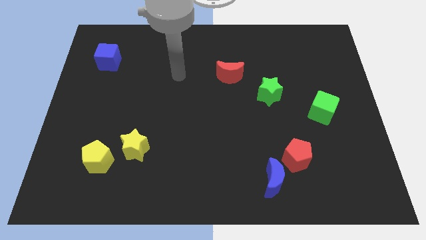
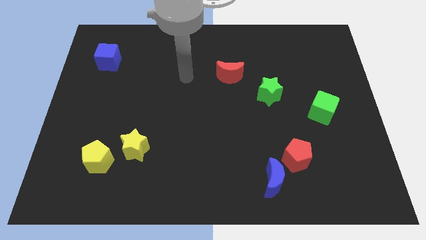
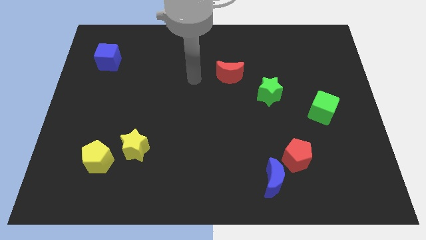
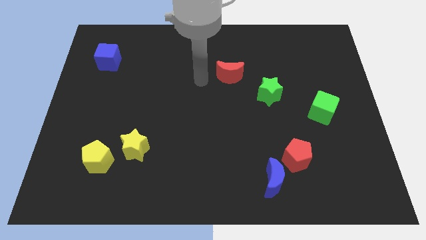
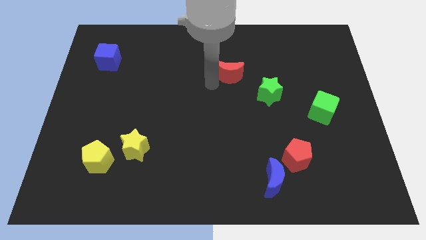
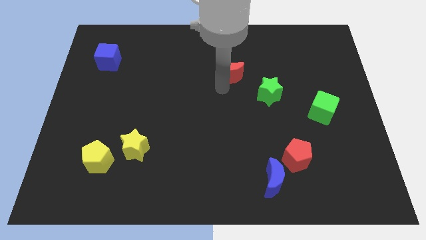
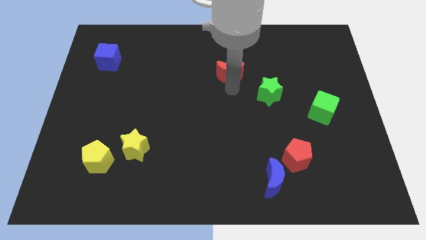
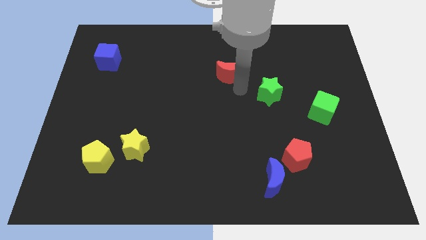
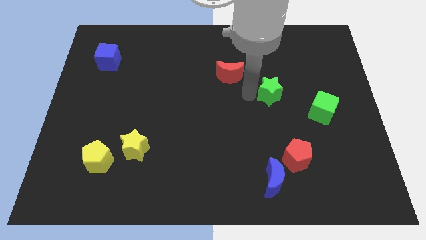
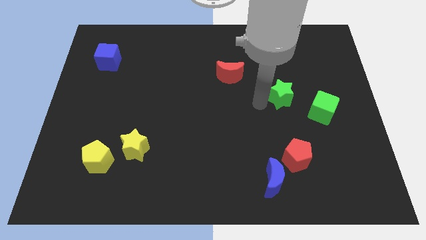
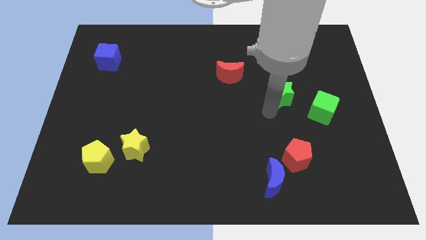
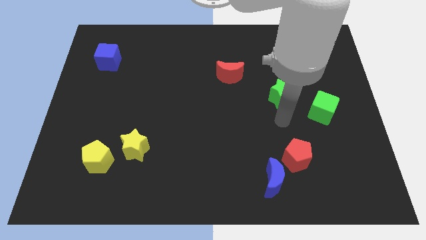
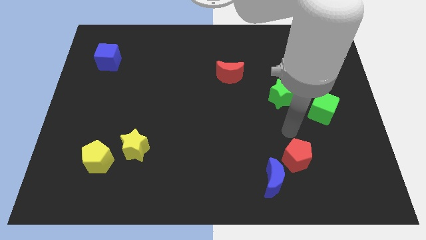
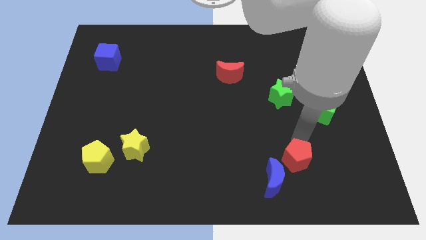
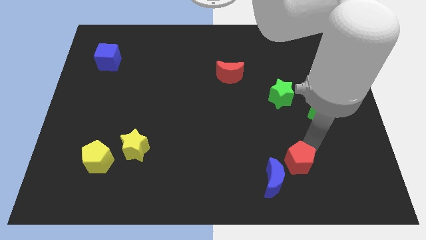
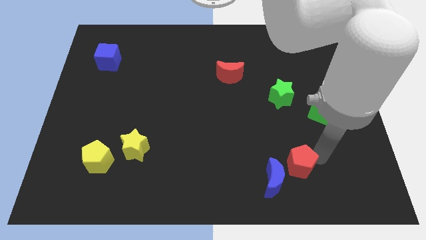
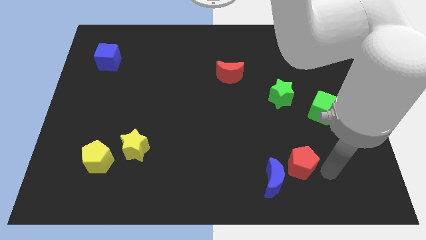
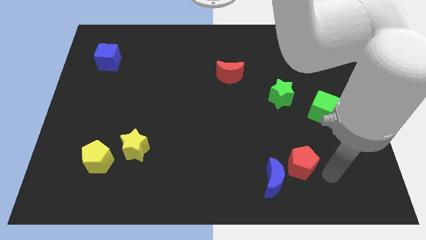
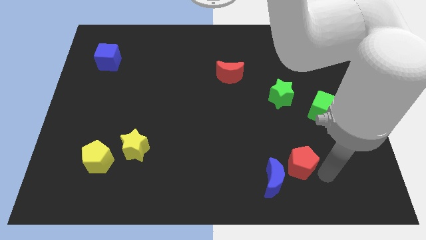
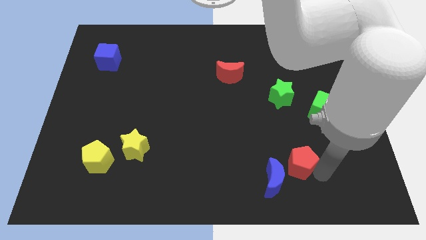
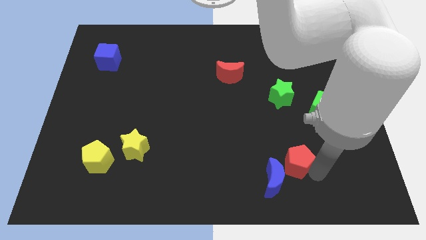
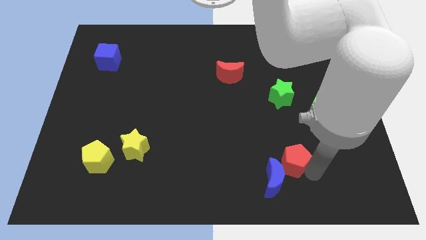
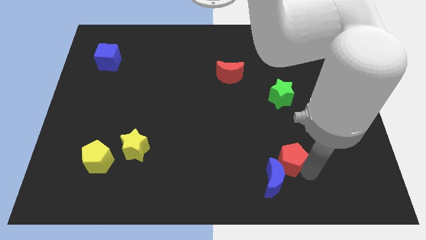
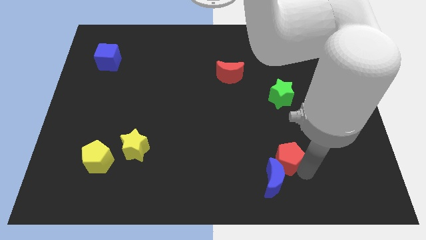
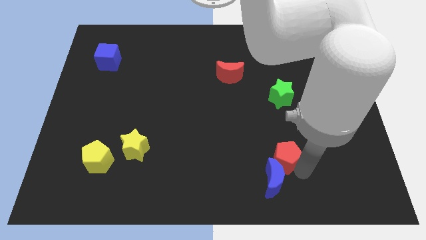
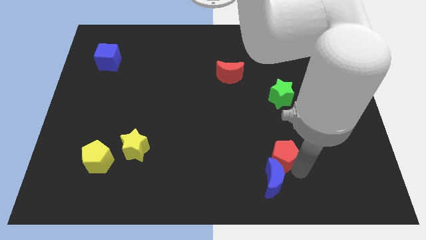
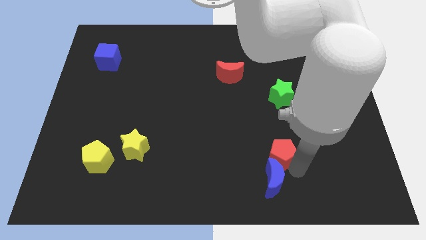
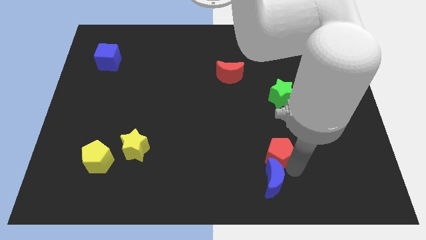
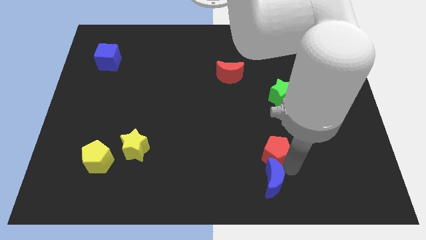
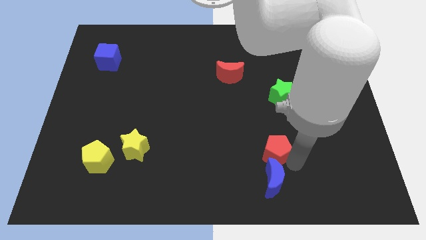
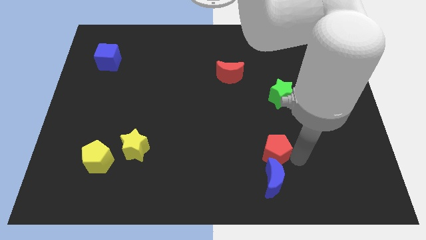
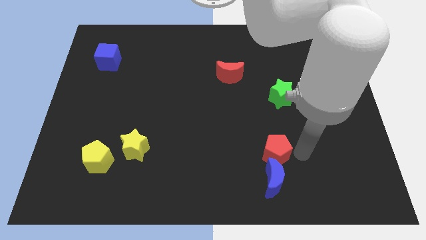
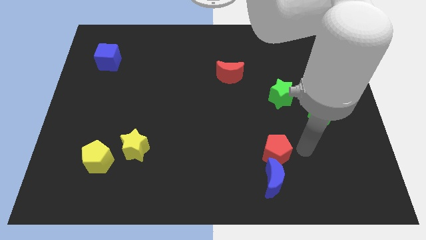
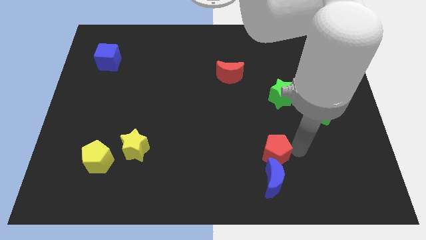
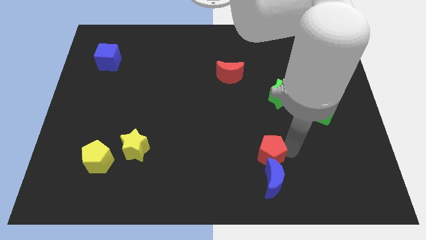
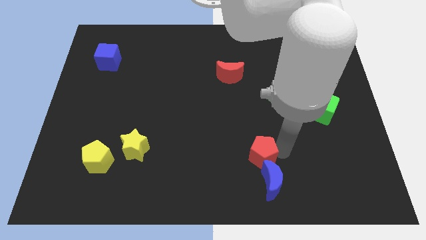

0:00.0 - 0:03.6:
slide the red pentagon somewhat to the left

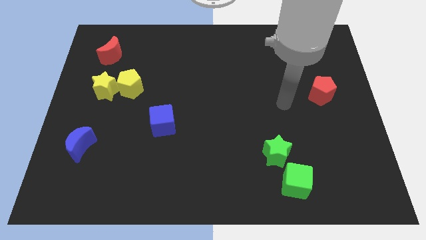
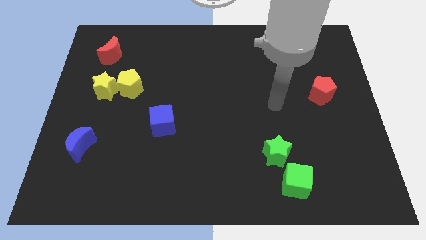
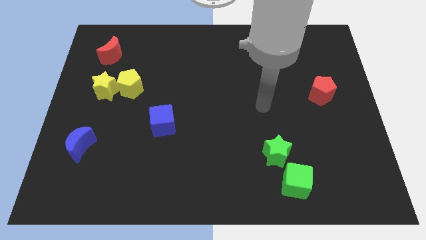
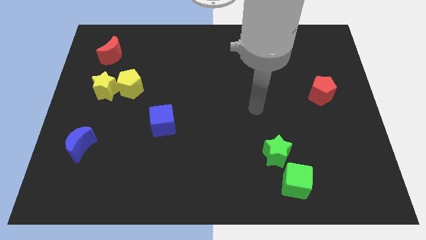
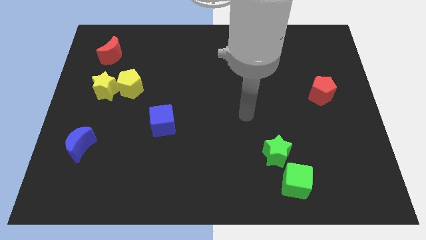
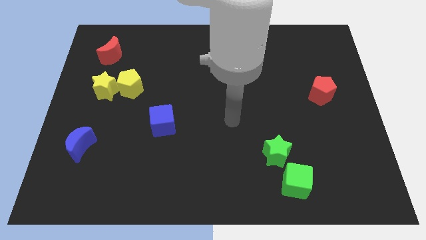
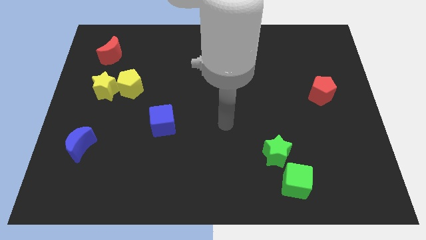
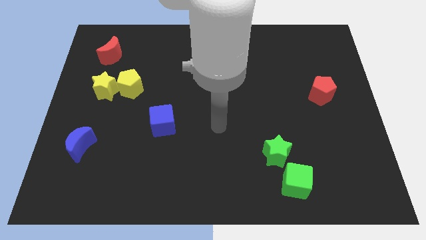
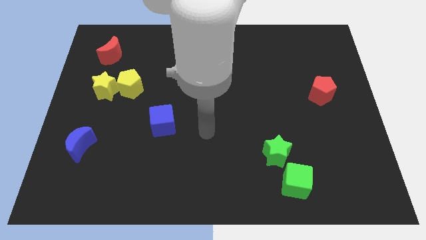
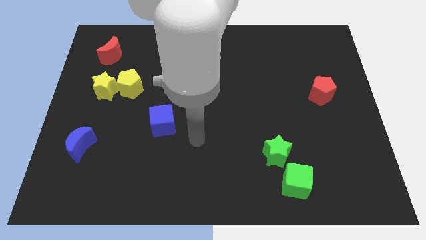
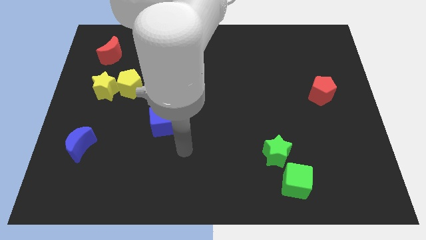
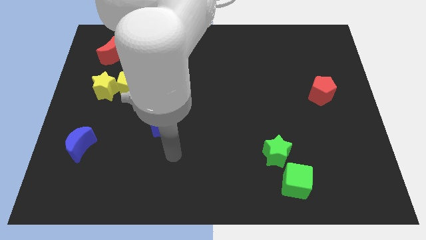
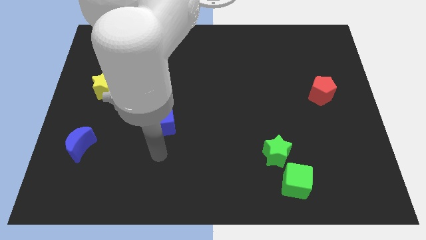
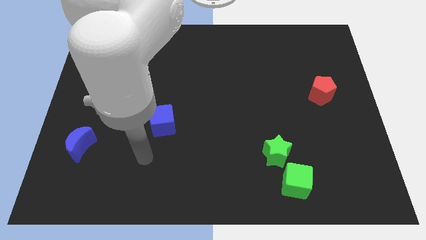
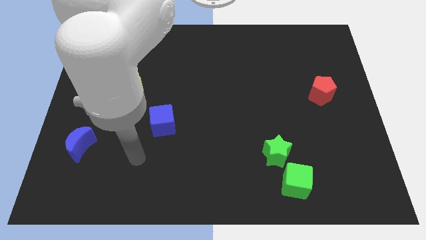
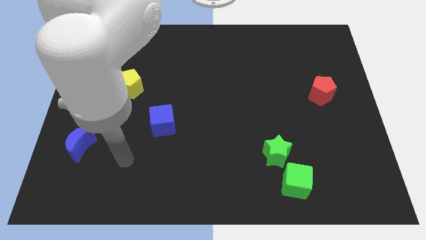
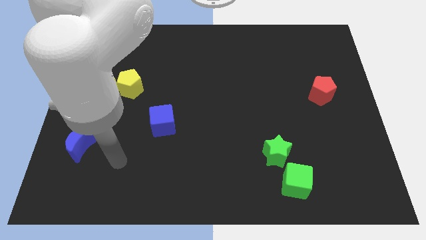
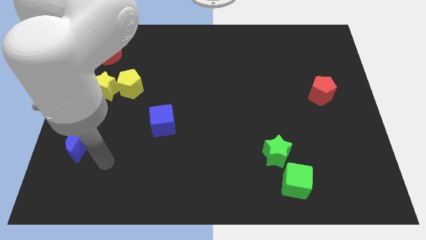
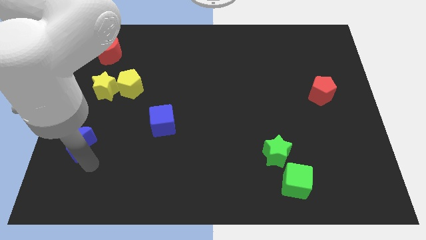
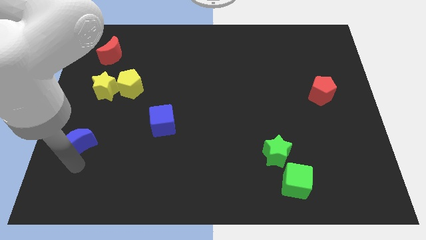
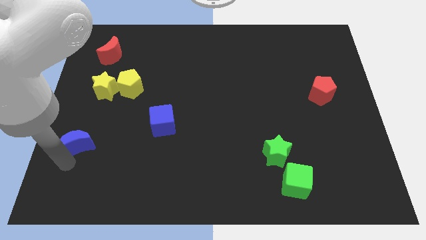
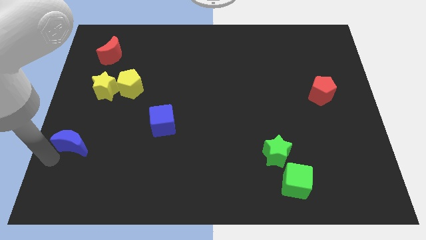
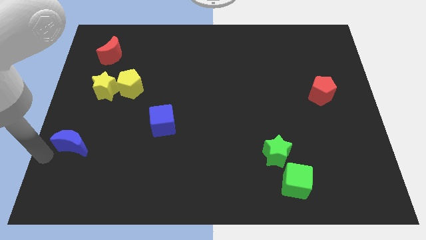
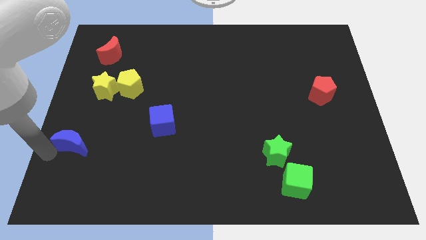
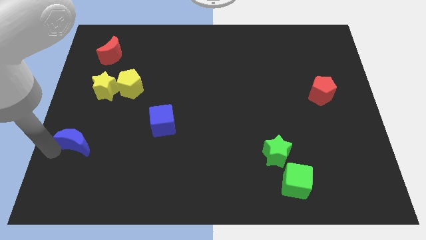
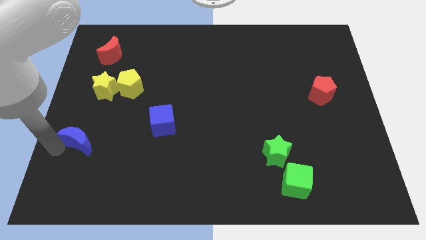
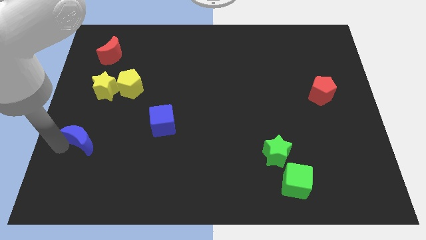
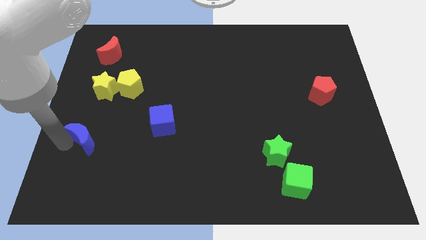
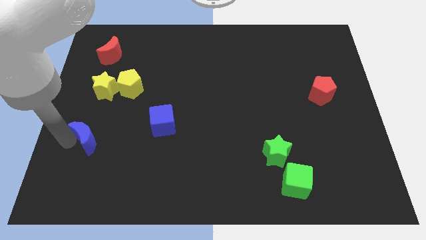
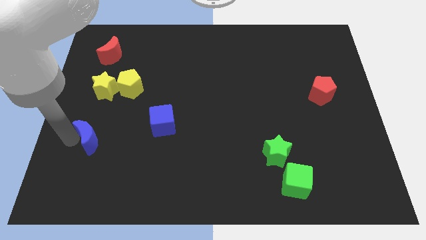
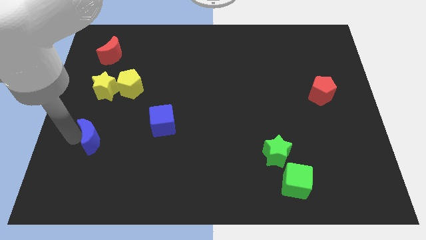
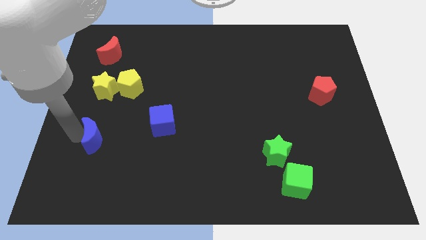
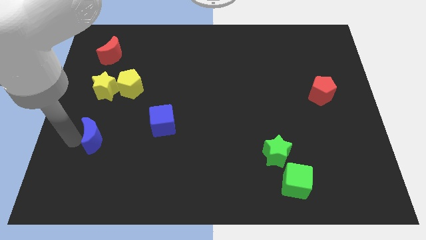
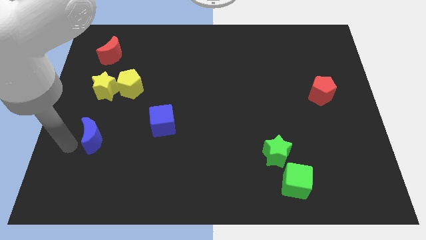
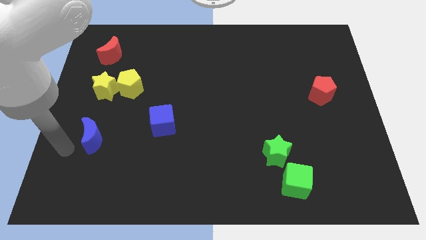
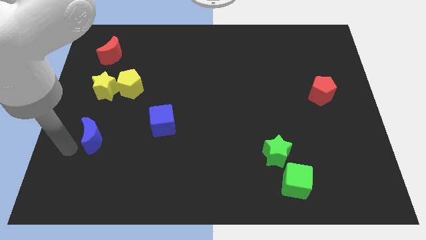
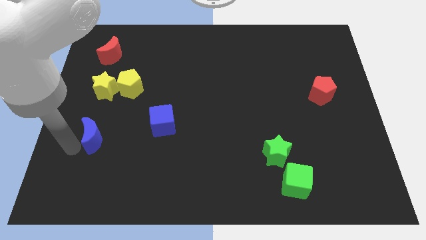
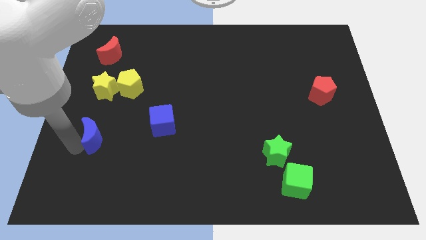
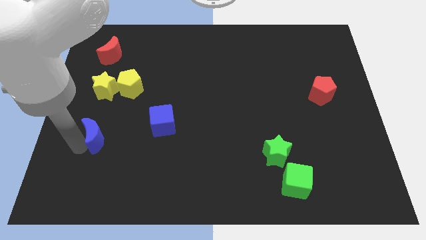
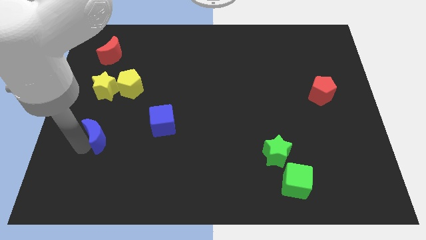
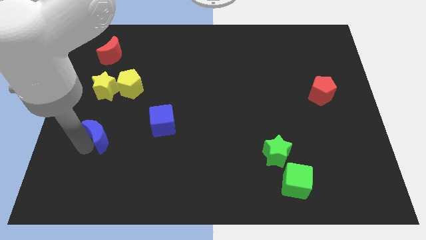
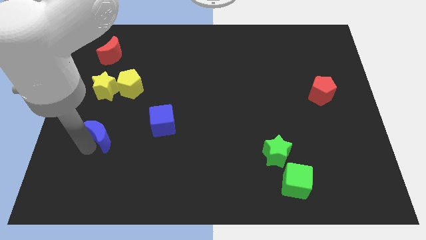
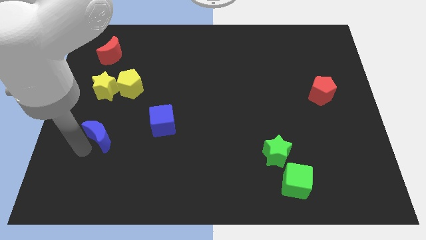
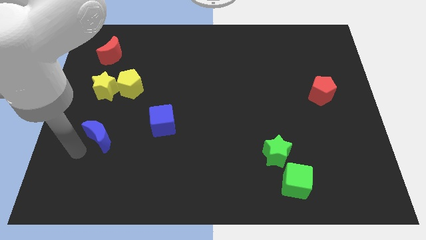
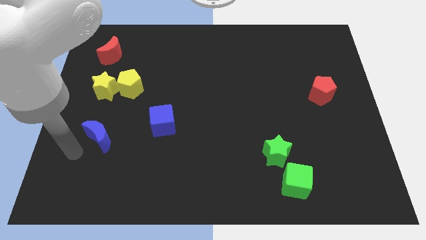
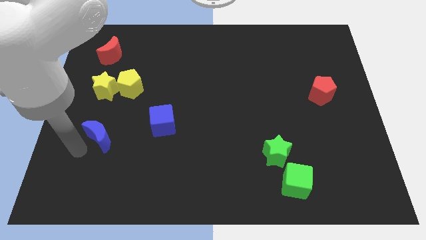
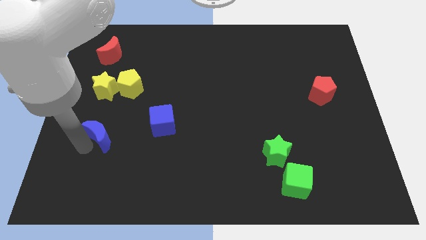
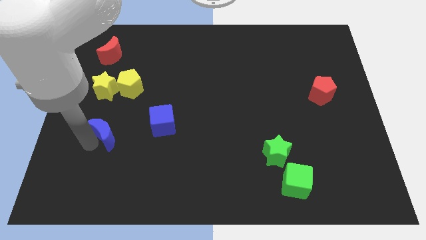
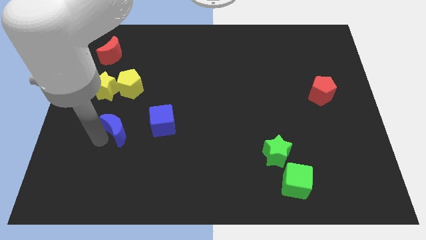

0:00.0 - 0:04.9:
slightly push the blue moon diagonally upwards and to the right
